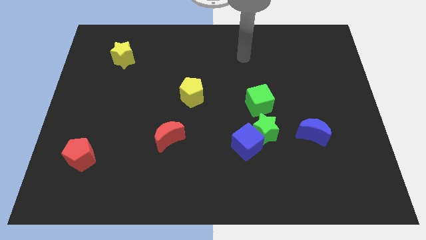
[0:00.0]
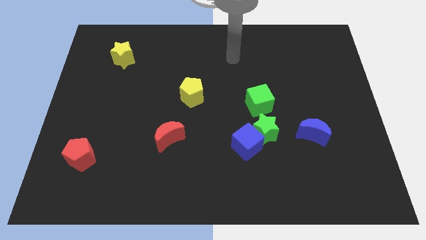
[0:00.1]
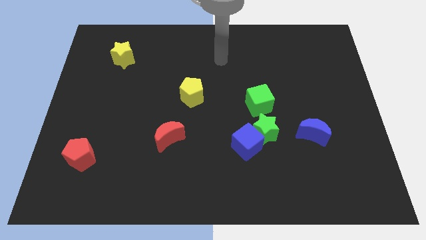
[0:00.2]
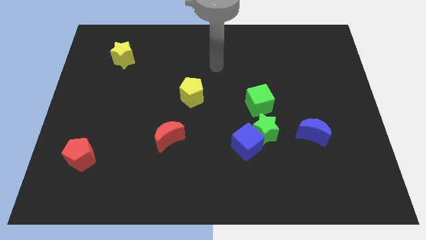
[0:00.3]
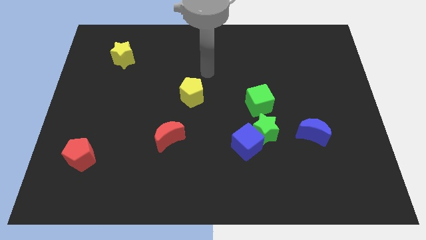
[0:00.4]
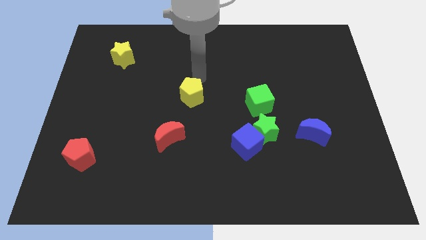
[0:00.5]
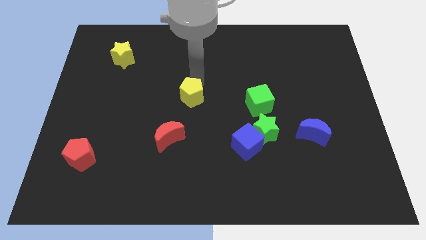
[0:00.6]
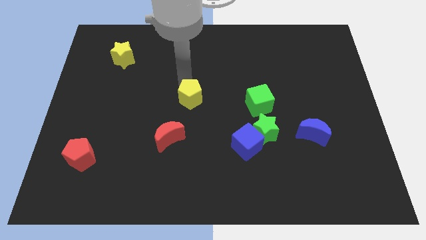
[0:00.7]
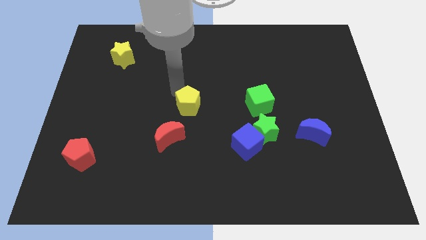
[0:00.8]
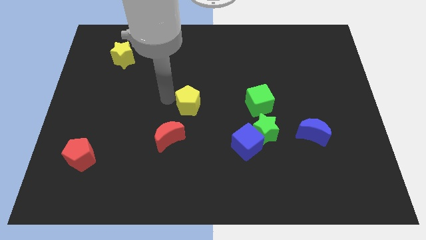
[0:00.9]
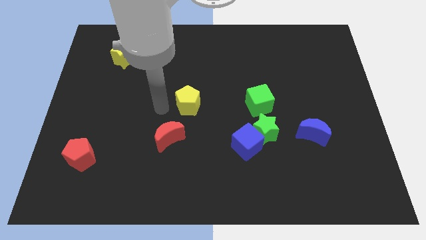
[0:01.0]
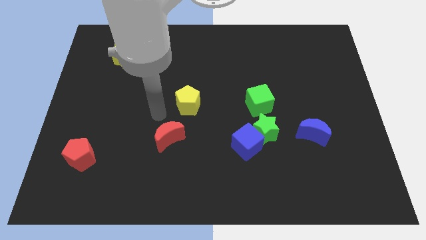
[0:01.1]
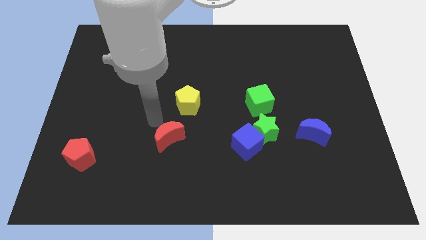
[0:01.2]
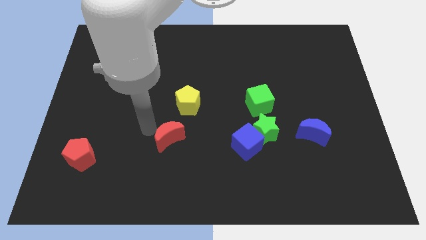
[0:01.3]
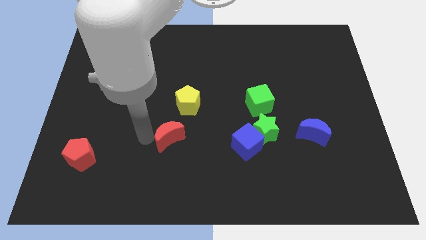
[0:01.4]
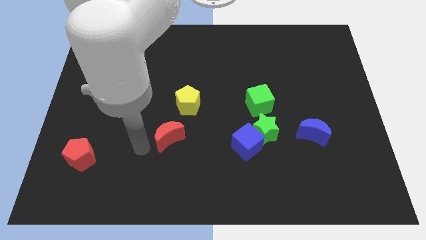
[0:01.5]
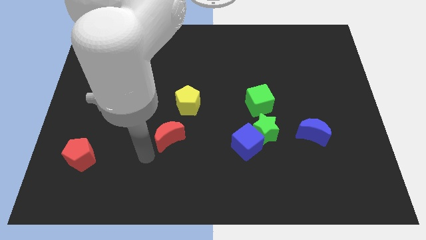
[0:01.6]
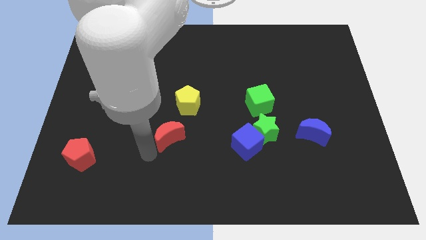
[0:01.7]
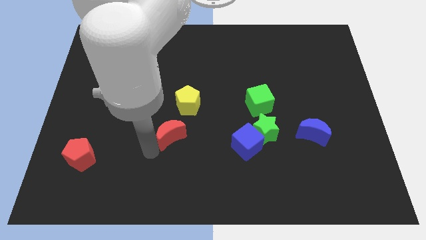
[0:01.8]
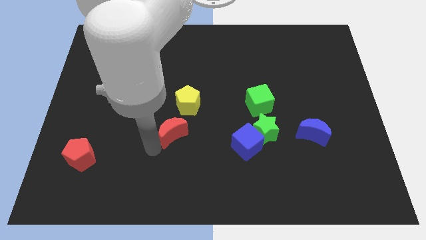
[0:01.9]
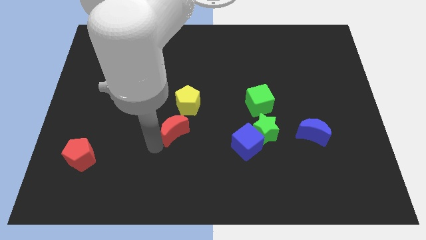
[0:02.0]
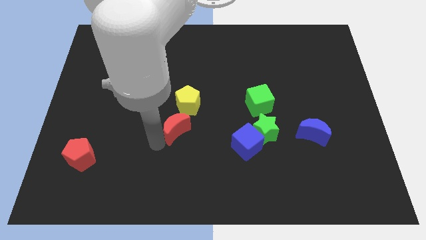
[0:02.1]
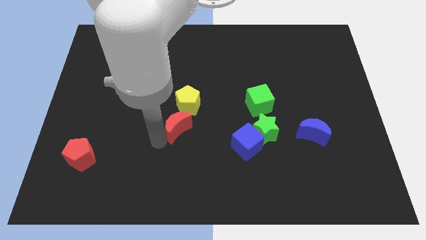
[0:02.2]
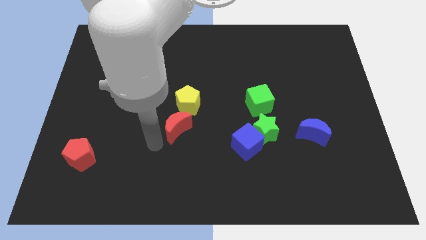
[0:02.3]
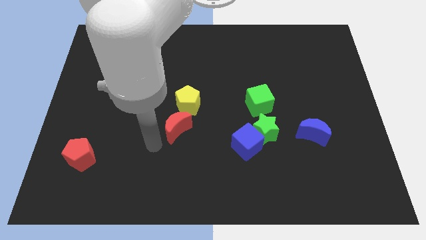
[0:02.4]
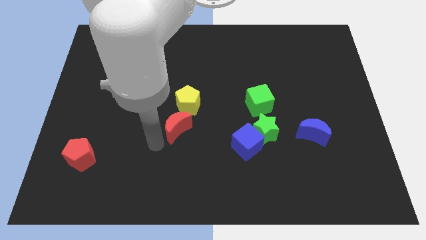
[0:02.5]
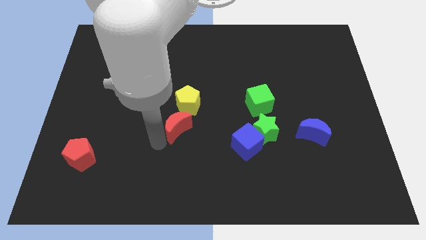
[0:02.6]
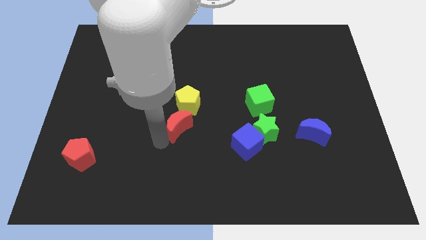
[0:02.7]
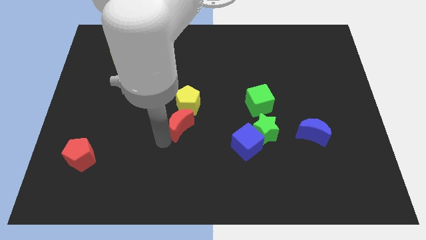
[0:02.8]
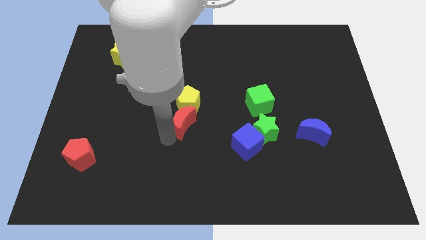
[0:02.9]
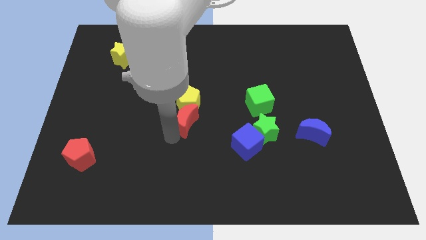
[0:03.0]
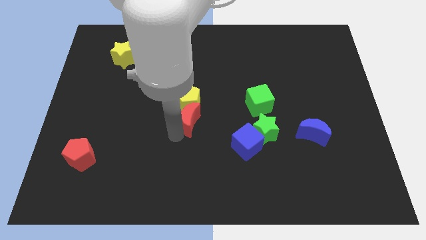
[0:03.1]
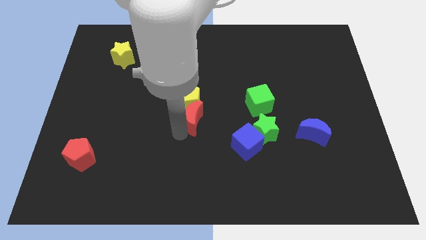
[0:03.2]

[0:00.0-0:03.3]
slide the red moon diagonally upwards and right a little

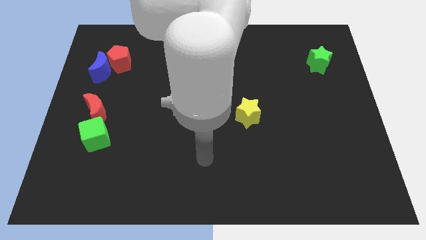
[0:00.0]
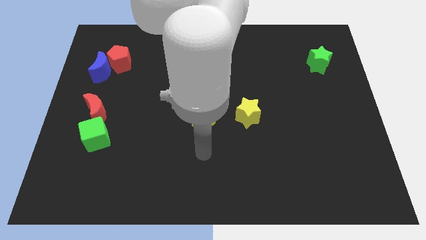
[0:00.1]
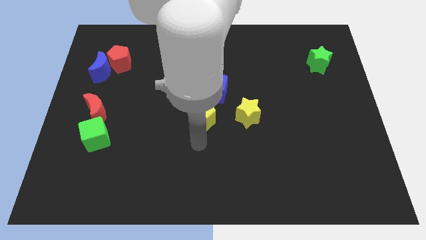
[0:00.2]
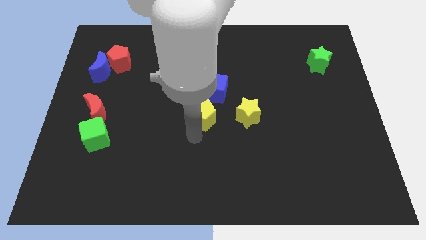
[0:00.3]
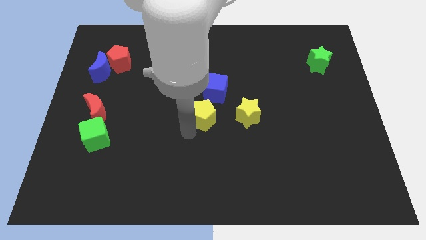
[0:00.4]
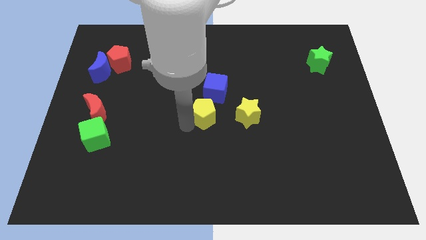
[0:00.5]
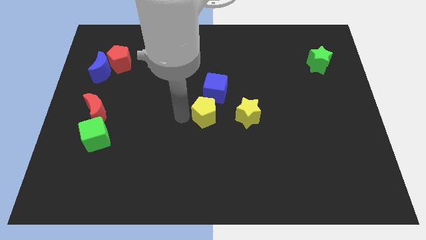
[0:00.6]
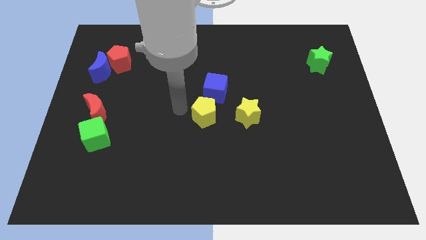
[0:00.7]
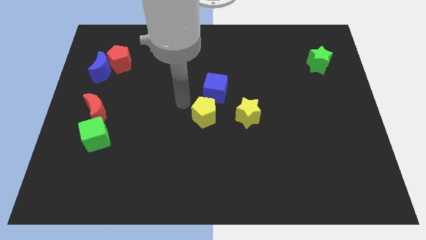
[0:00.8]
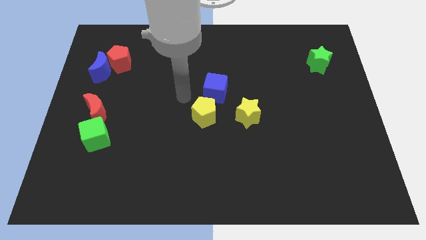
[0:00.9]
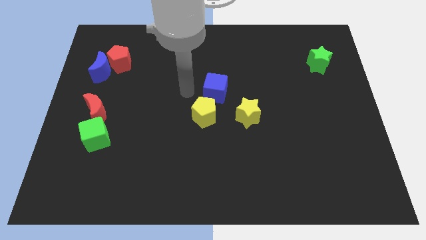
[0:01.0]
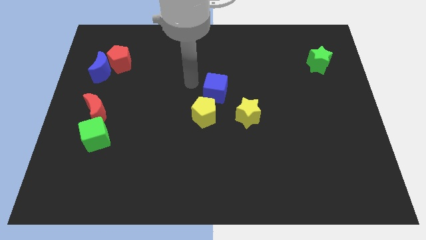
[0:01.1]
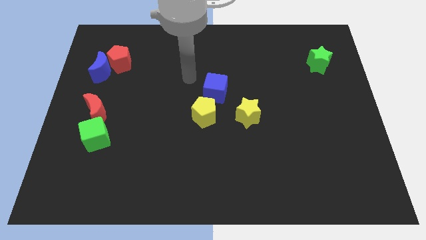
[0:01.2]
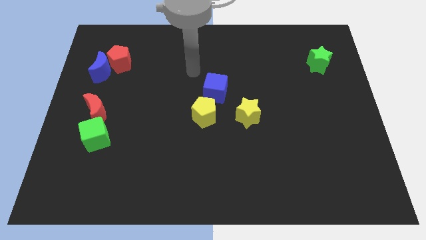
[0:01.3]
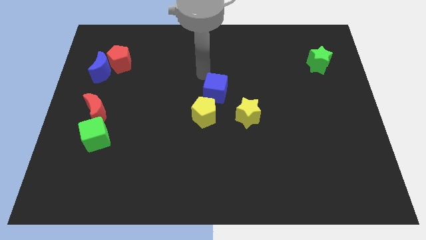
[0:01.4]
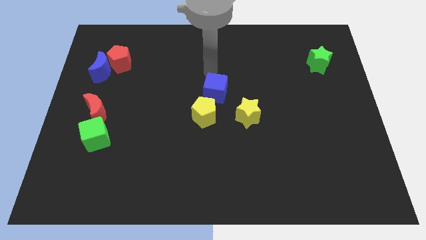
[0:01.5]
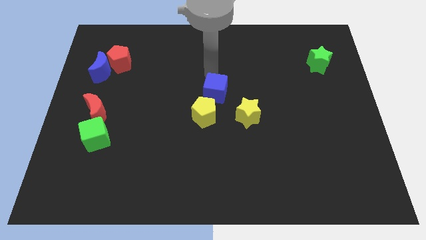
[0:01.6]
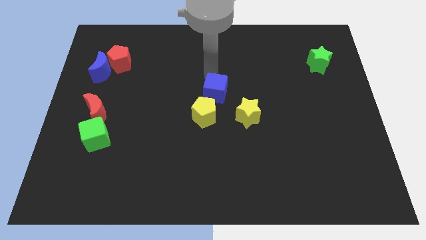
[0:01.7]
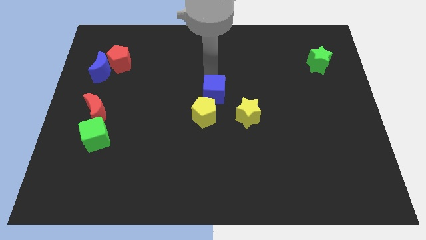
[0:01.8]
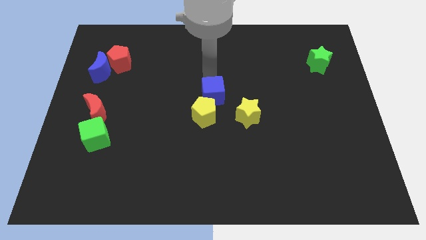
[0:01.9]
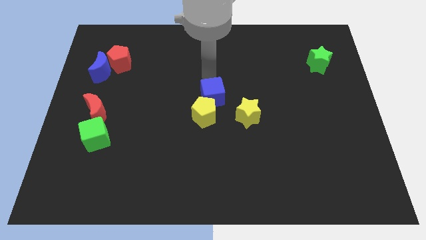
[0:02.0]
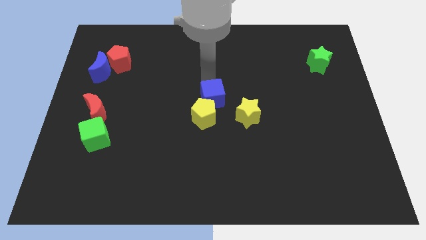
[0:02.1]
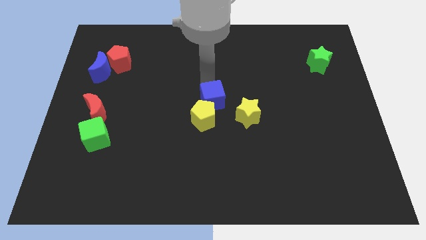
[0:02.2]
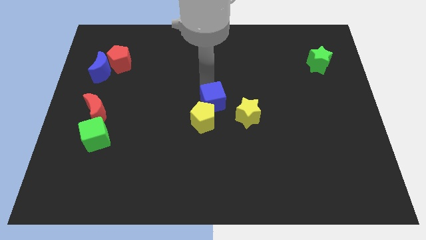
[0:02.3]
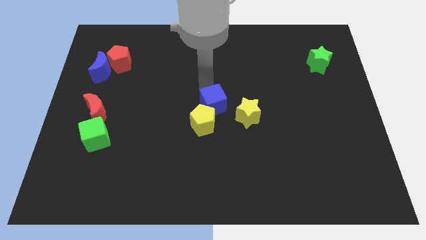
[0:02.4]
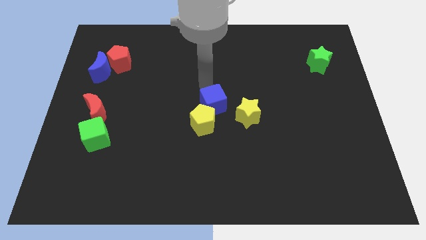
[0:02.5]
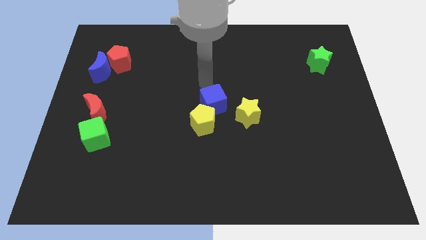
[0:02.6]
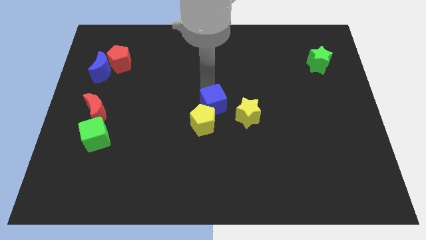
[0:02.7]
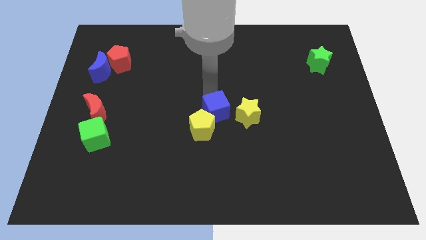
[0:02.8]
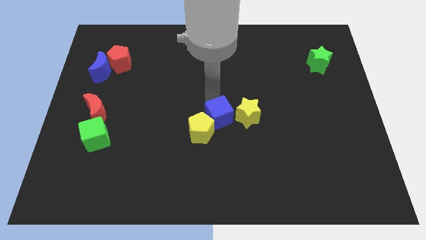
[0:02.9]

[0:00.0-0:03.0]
move the blue cube downwards a bit

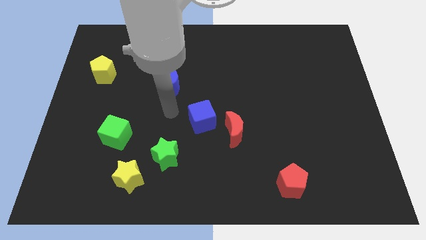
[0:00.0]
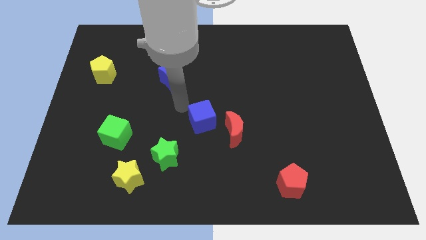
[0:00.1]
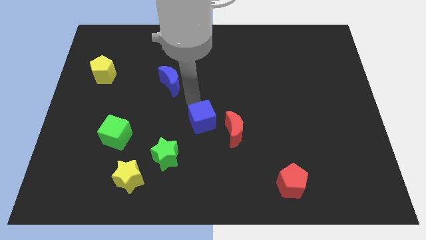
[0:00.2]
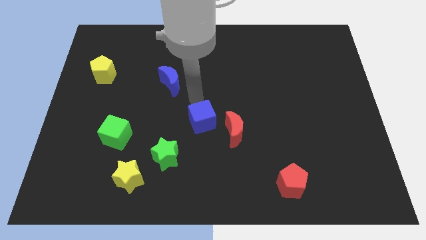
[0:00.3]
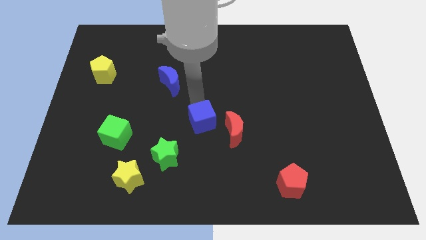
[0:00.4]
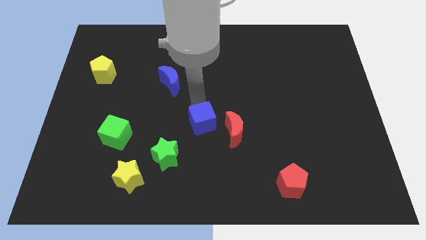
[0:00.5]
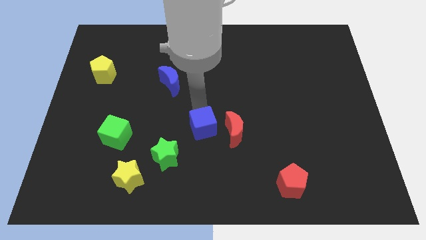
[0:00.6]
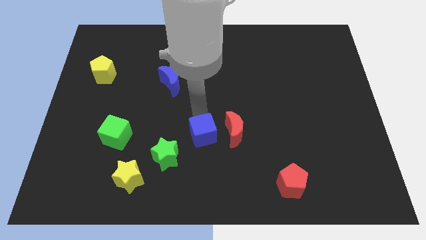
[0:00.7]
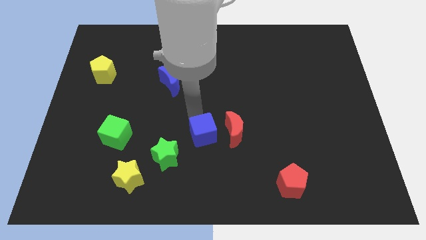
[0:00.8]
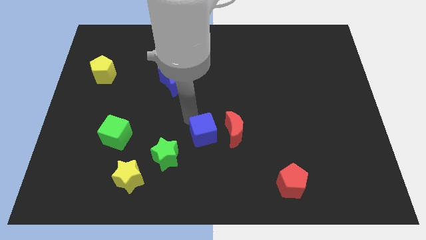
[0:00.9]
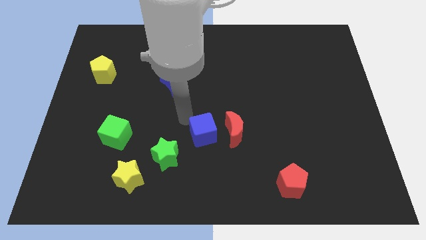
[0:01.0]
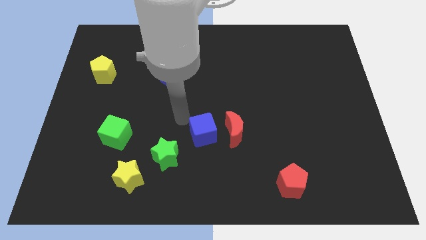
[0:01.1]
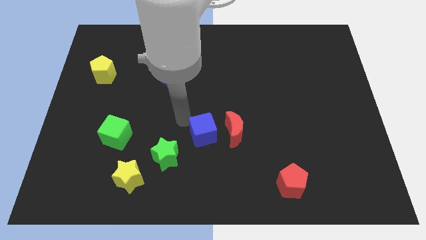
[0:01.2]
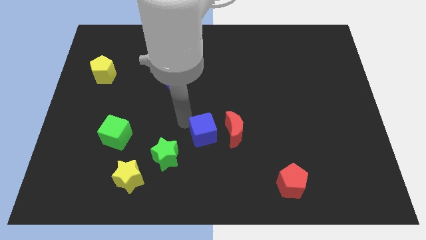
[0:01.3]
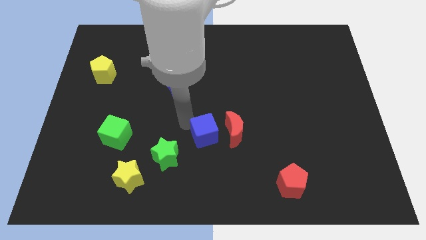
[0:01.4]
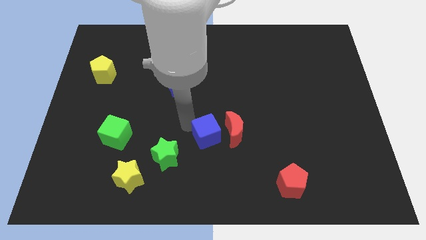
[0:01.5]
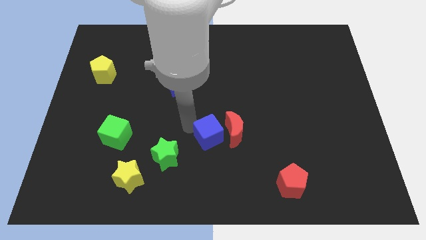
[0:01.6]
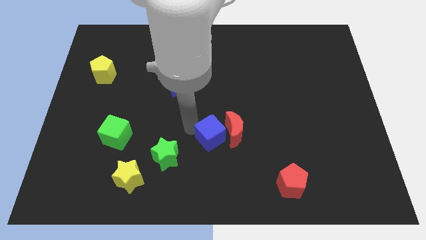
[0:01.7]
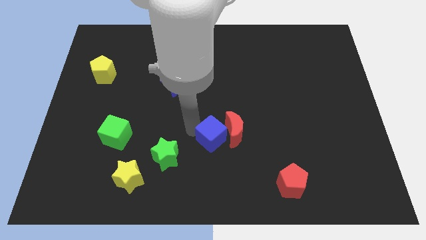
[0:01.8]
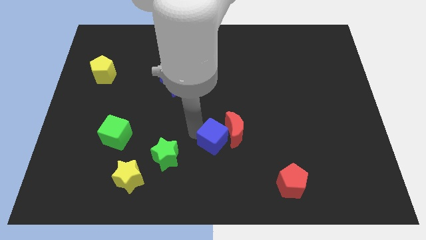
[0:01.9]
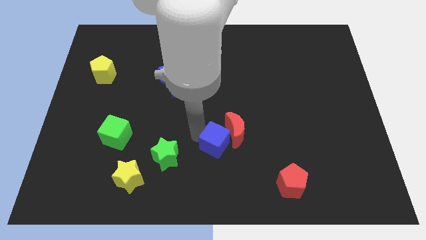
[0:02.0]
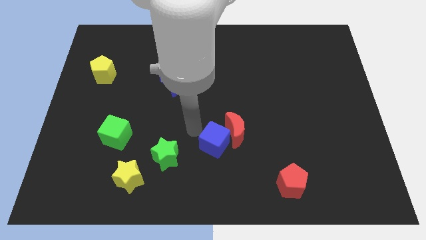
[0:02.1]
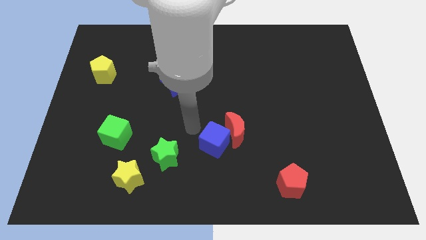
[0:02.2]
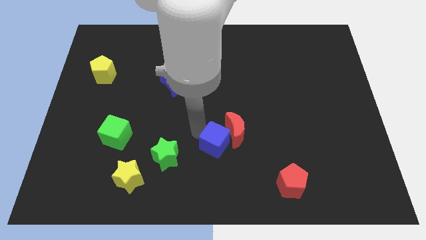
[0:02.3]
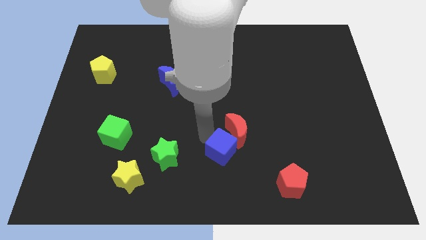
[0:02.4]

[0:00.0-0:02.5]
move the blue cube a little diagonally down and right
